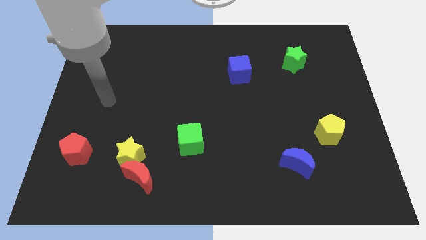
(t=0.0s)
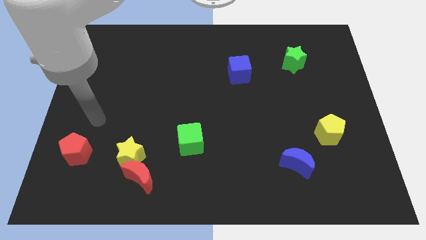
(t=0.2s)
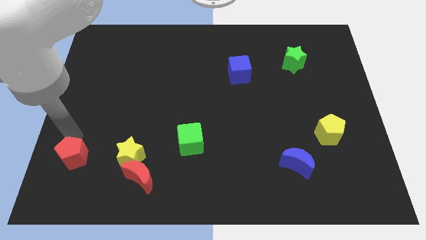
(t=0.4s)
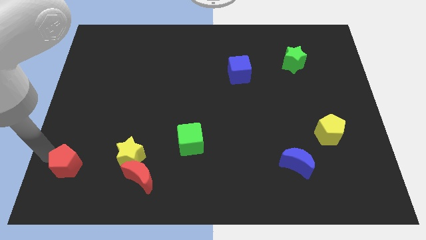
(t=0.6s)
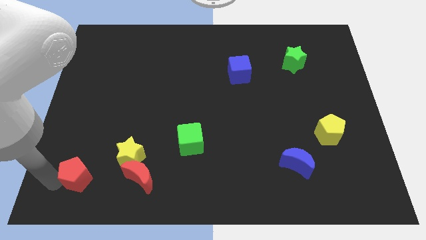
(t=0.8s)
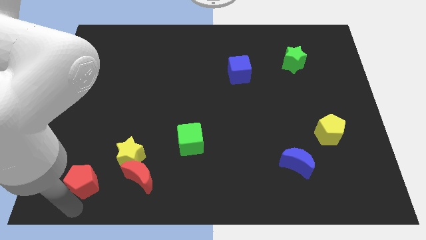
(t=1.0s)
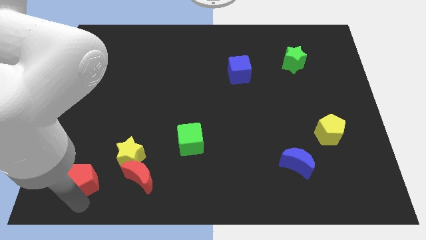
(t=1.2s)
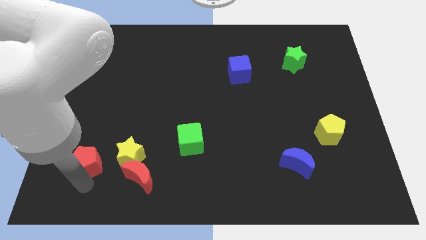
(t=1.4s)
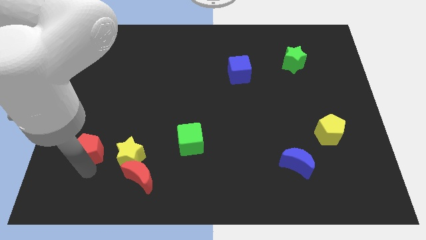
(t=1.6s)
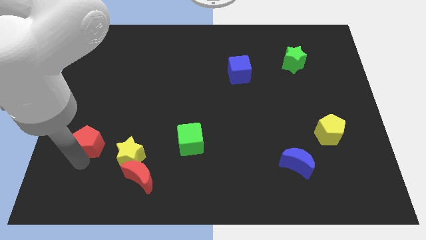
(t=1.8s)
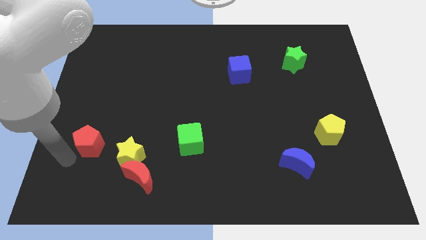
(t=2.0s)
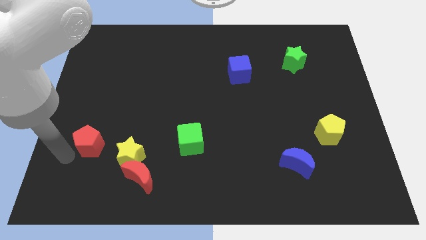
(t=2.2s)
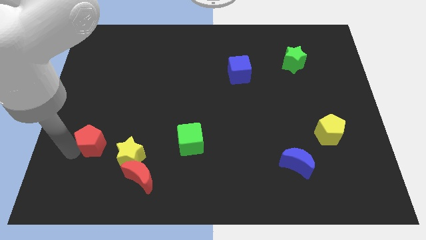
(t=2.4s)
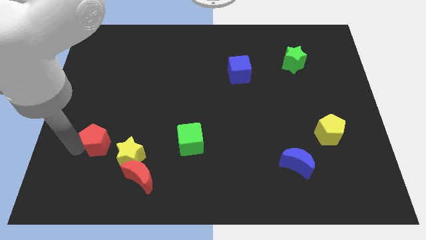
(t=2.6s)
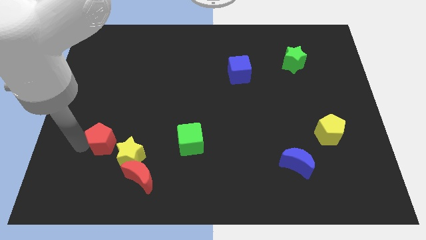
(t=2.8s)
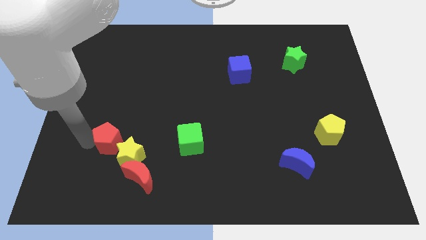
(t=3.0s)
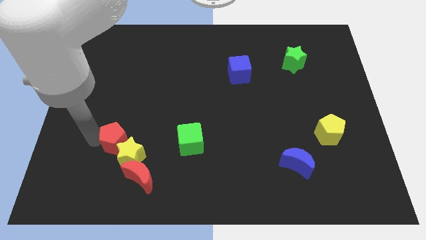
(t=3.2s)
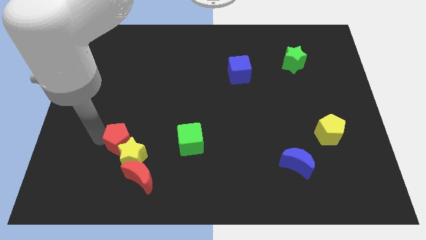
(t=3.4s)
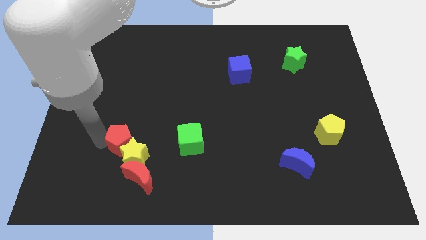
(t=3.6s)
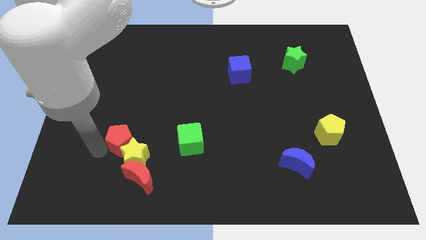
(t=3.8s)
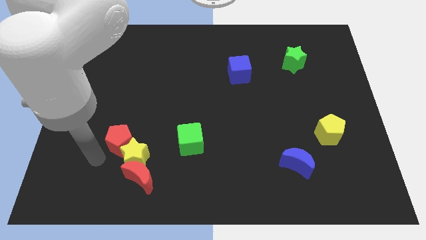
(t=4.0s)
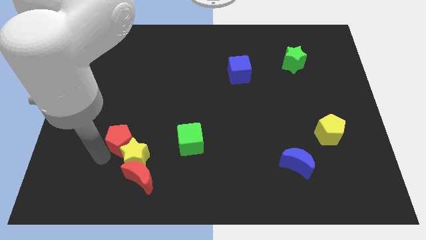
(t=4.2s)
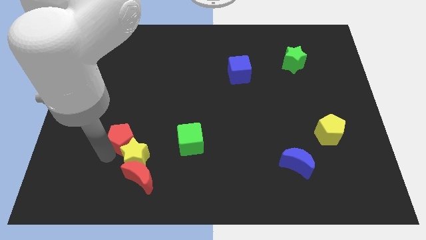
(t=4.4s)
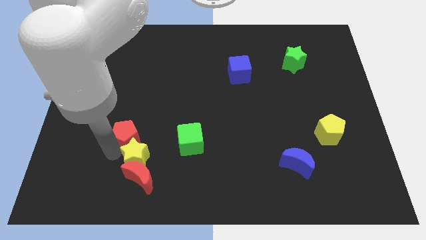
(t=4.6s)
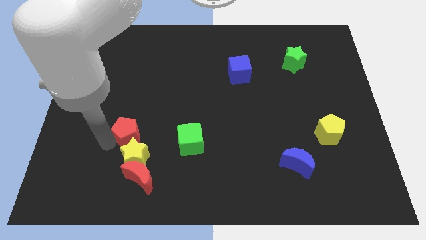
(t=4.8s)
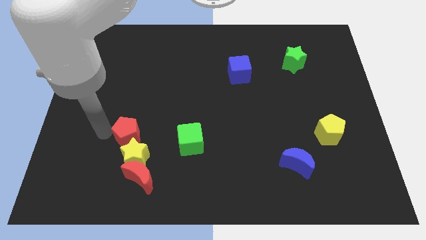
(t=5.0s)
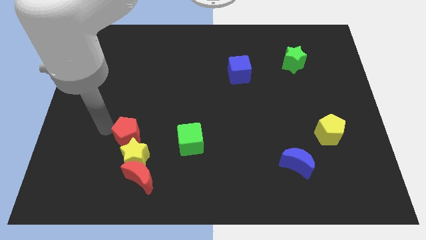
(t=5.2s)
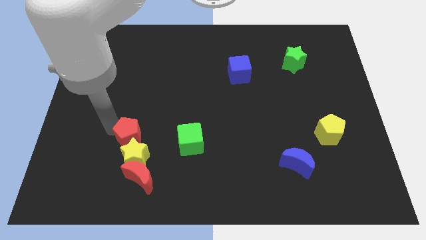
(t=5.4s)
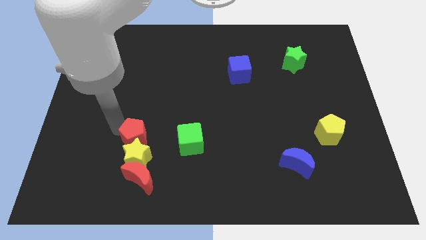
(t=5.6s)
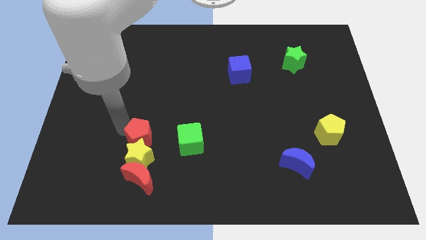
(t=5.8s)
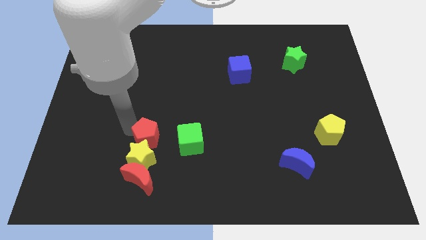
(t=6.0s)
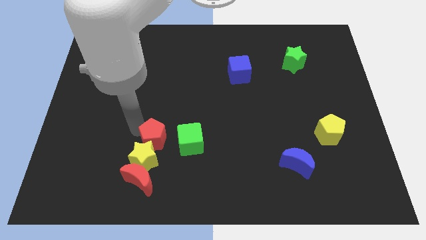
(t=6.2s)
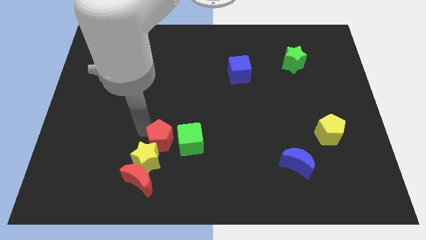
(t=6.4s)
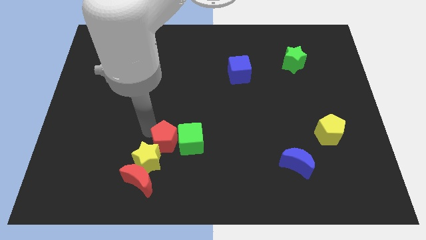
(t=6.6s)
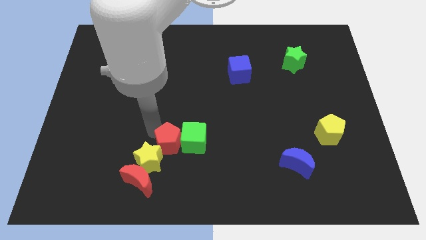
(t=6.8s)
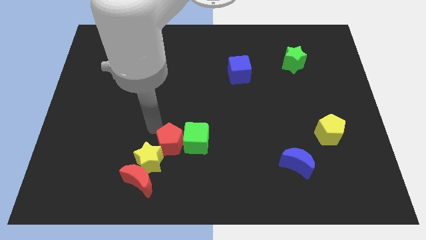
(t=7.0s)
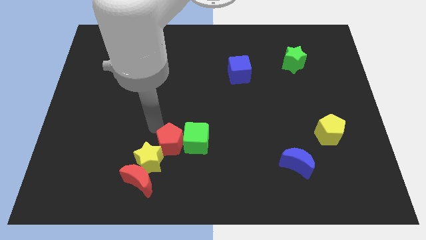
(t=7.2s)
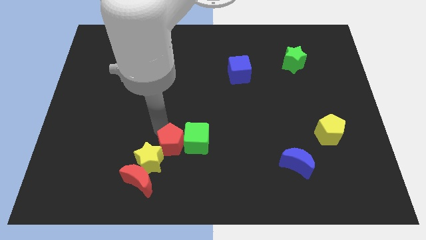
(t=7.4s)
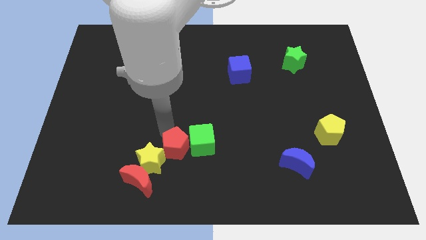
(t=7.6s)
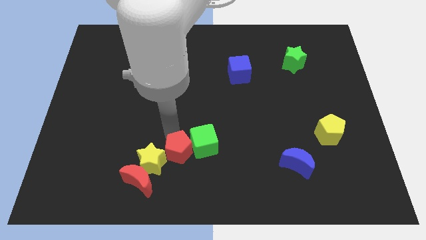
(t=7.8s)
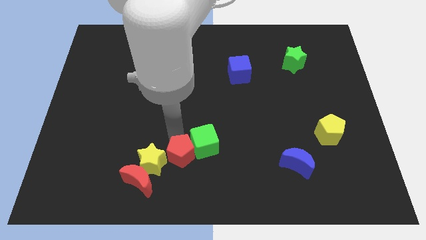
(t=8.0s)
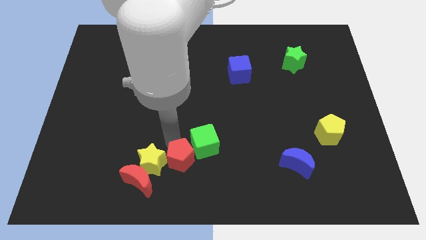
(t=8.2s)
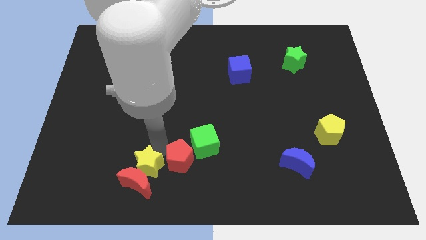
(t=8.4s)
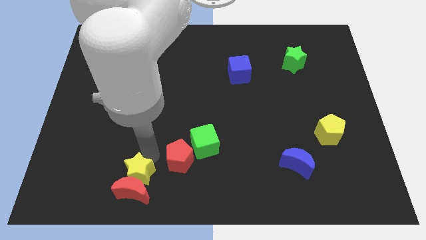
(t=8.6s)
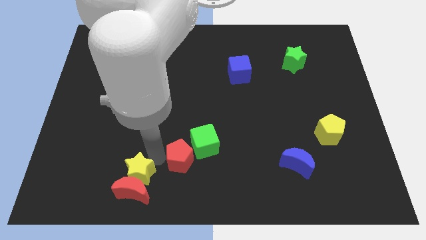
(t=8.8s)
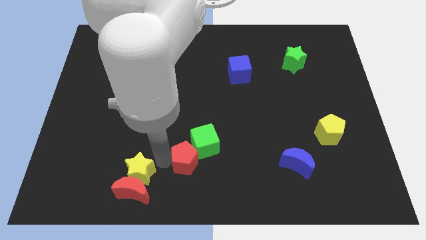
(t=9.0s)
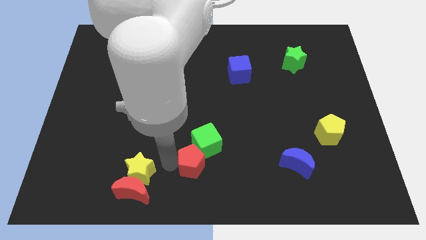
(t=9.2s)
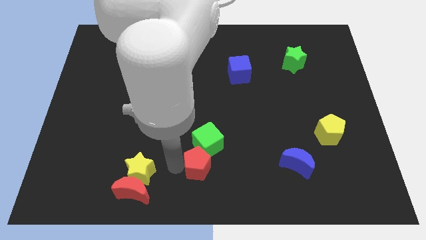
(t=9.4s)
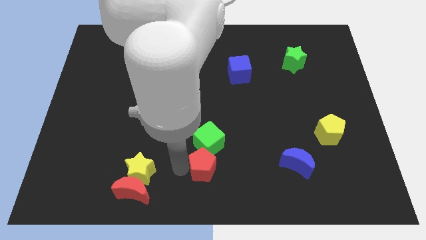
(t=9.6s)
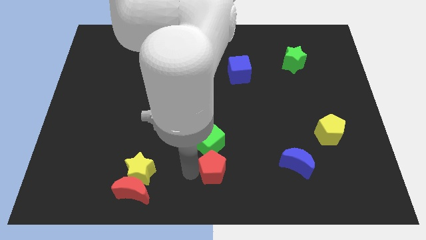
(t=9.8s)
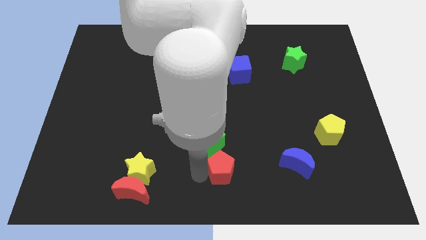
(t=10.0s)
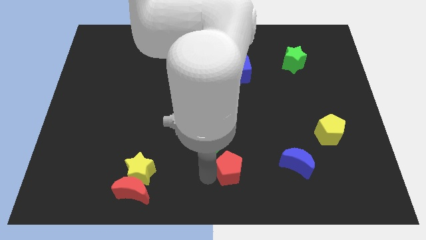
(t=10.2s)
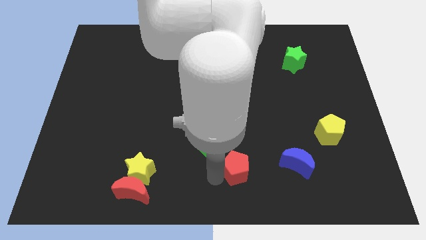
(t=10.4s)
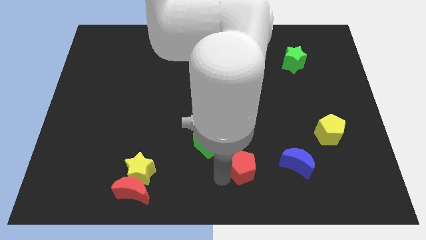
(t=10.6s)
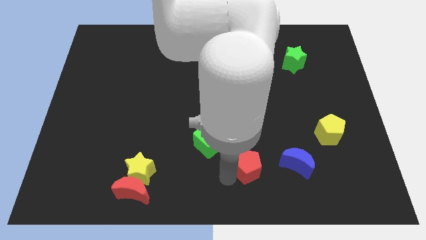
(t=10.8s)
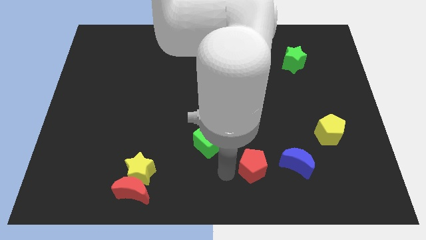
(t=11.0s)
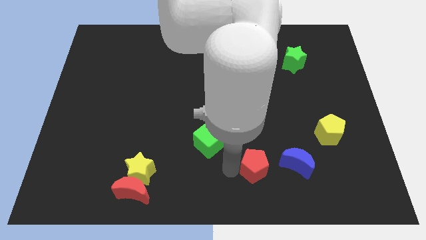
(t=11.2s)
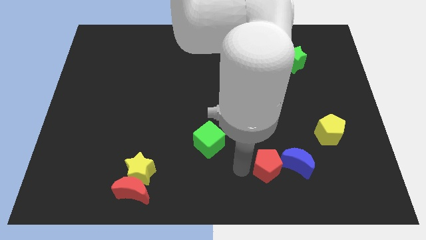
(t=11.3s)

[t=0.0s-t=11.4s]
move the red pentagon towards the blue moon

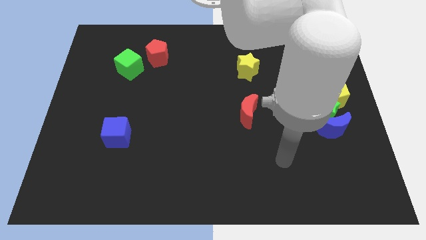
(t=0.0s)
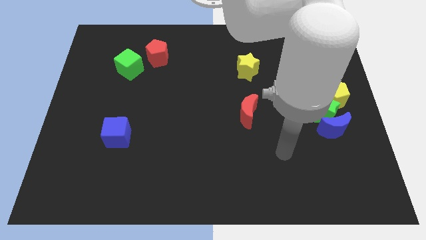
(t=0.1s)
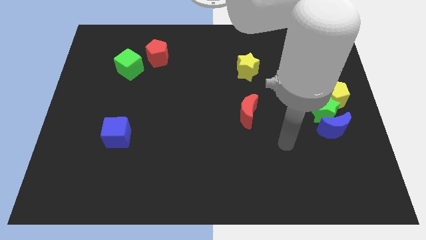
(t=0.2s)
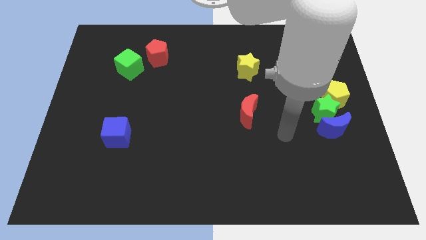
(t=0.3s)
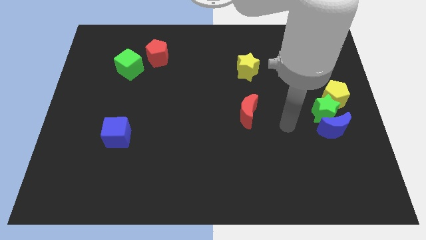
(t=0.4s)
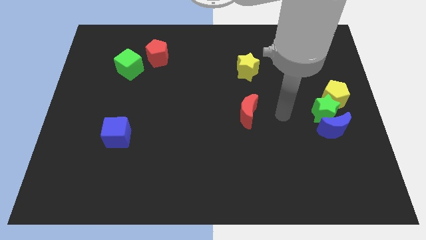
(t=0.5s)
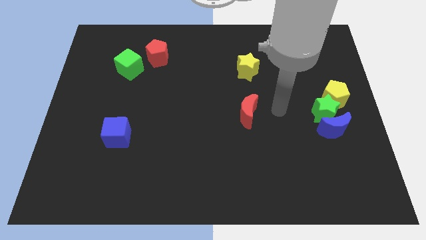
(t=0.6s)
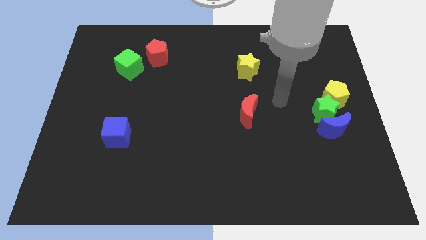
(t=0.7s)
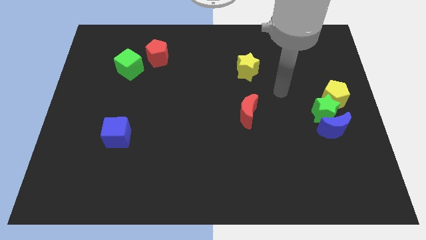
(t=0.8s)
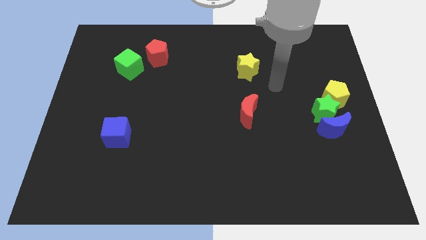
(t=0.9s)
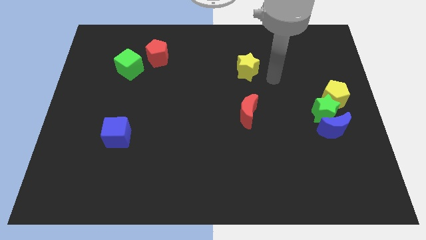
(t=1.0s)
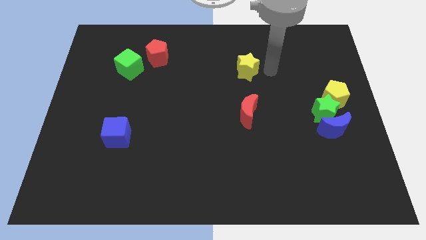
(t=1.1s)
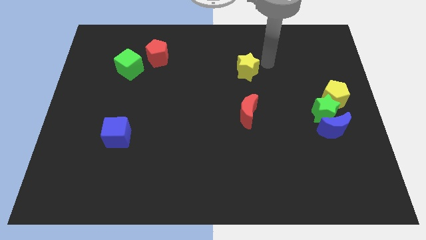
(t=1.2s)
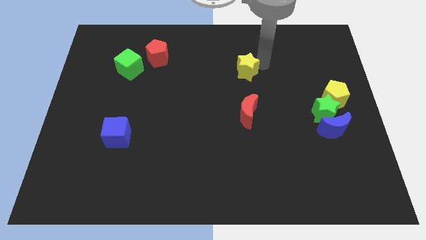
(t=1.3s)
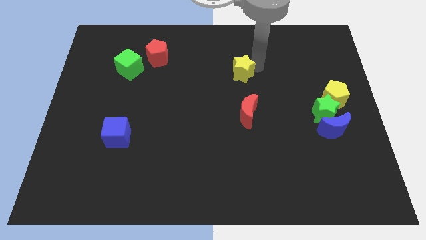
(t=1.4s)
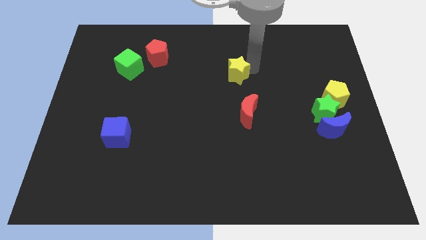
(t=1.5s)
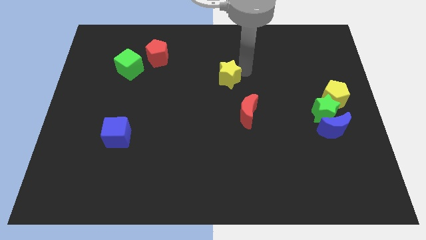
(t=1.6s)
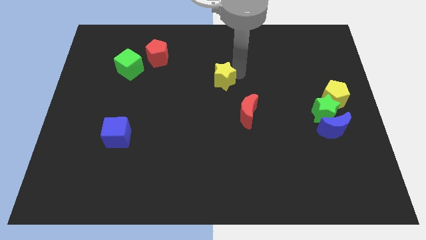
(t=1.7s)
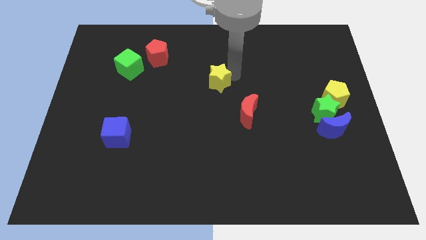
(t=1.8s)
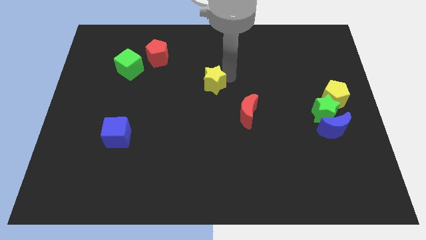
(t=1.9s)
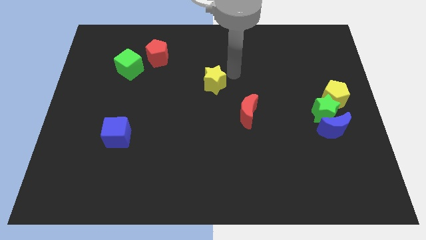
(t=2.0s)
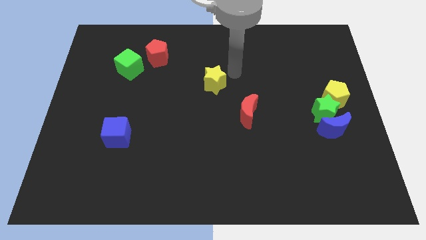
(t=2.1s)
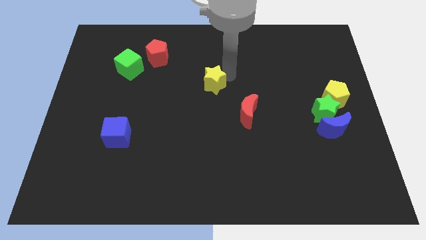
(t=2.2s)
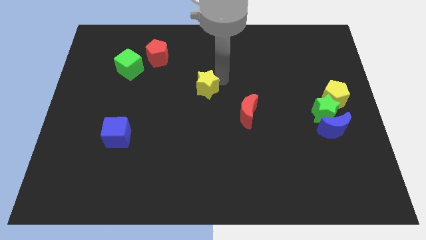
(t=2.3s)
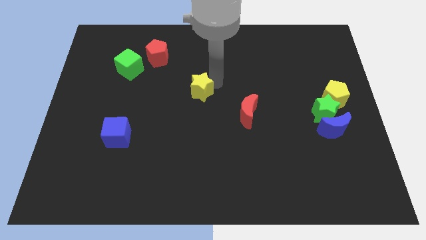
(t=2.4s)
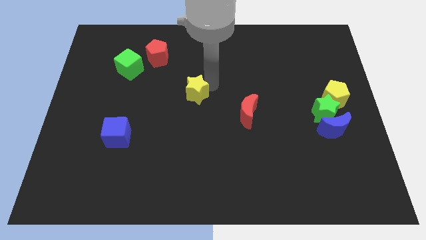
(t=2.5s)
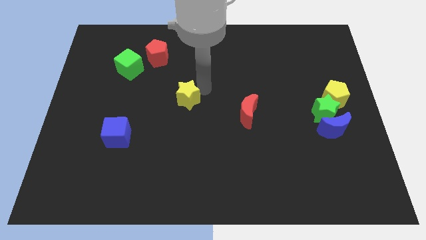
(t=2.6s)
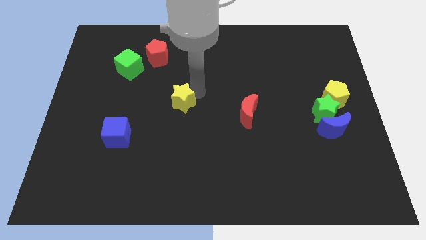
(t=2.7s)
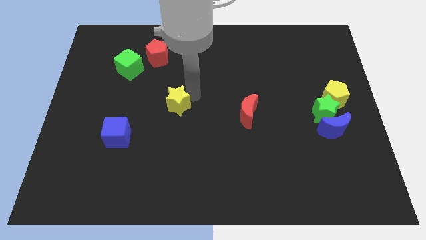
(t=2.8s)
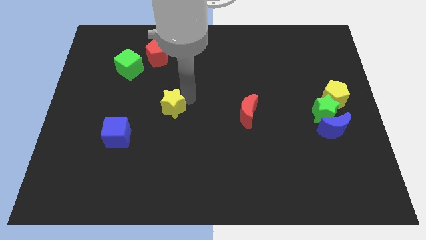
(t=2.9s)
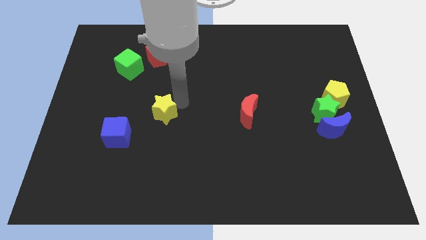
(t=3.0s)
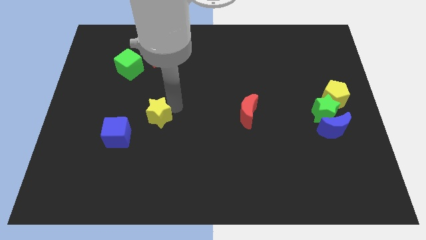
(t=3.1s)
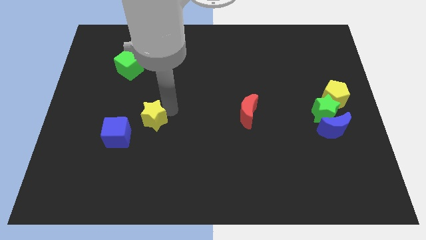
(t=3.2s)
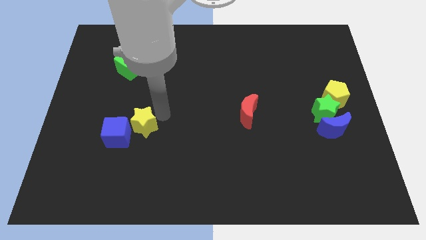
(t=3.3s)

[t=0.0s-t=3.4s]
move the yellow star close to the blue cube
